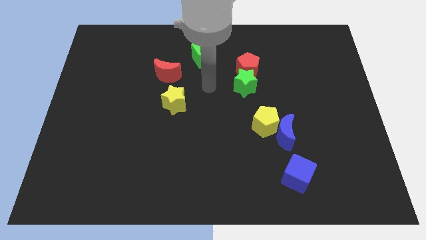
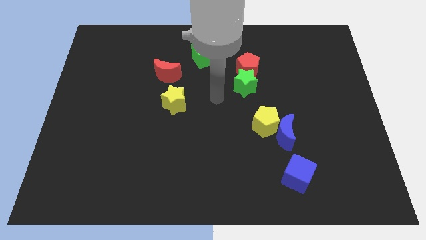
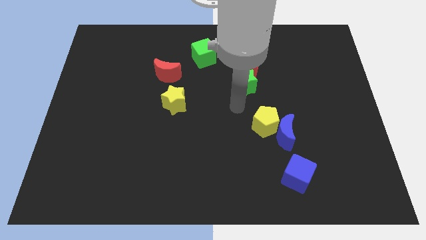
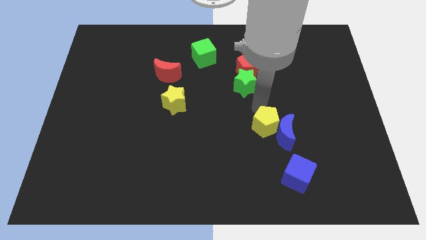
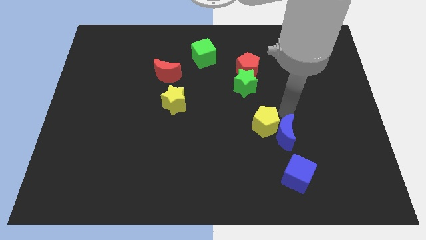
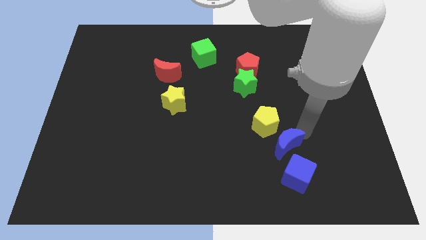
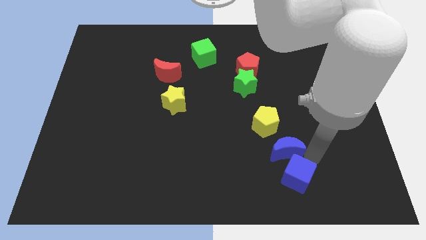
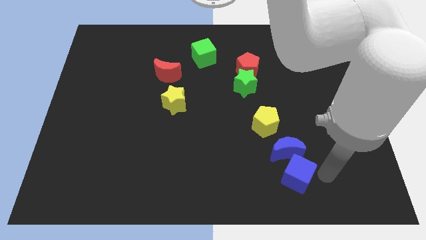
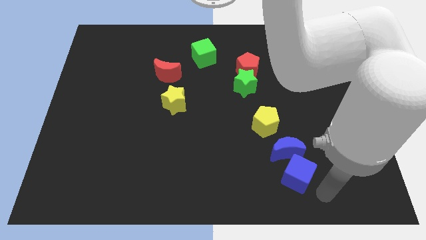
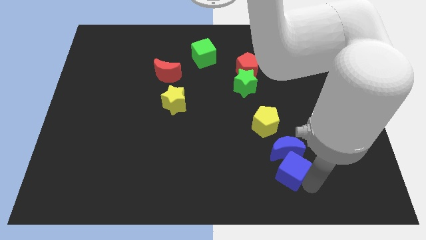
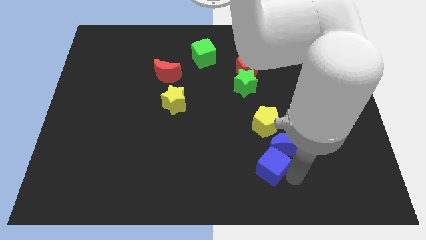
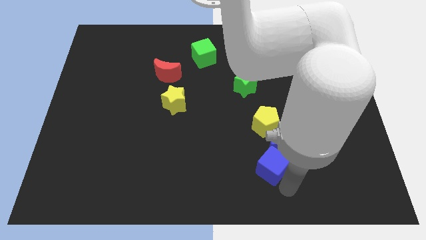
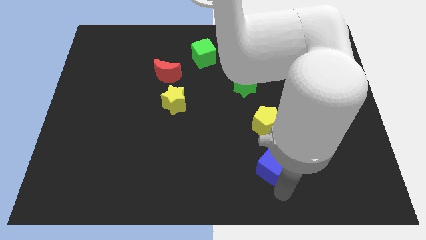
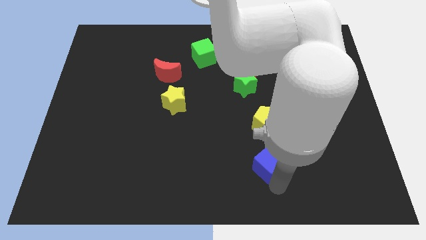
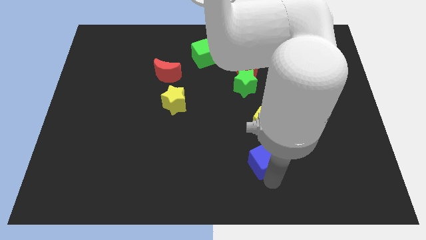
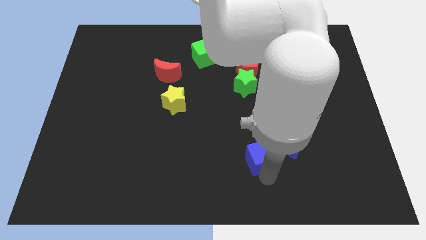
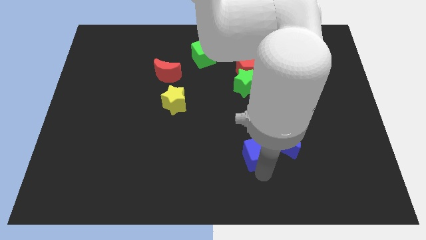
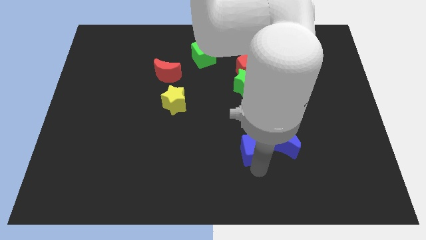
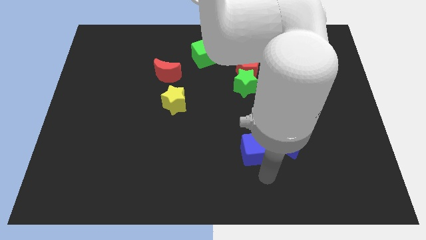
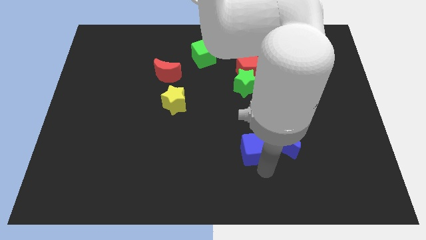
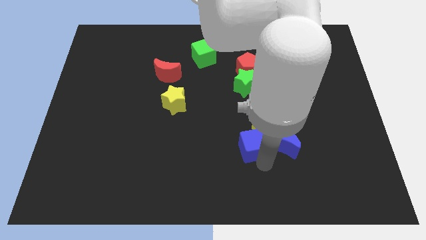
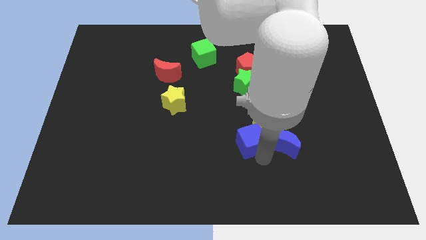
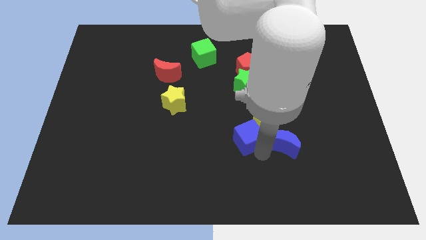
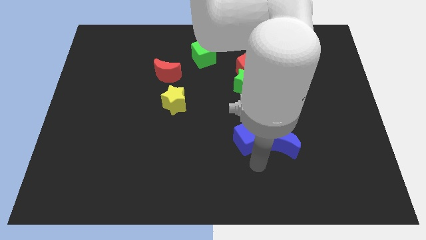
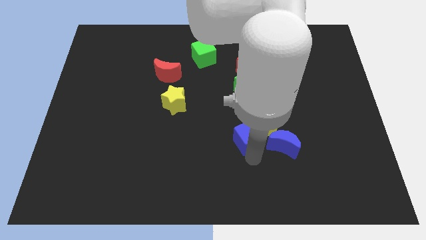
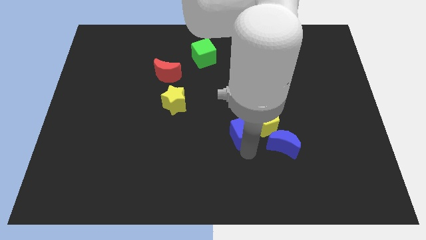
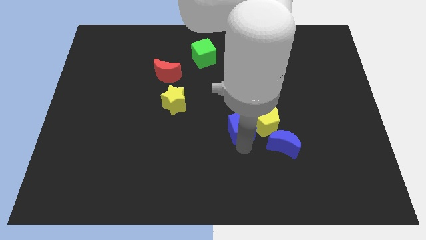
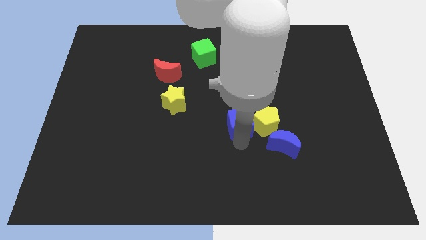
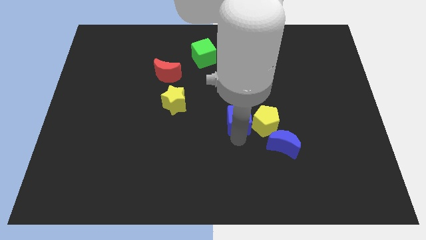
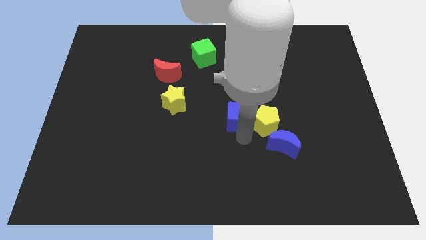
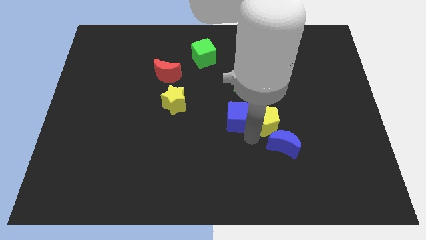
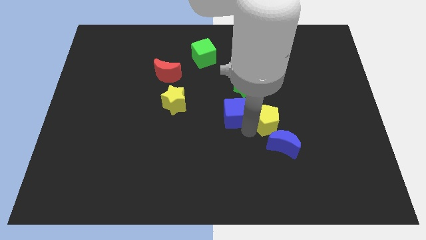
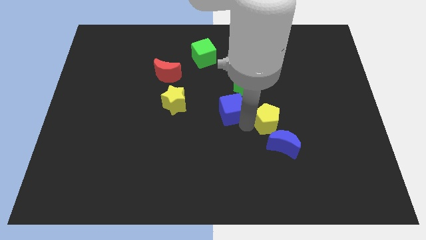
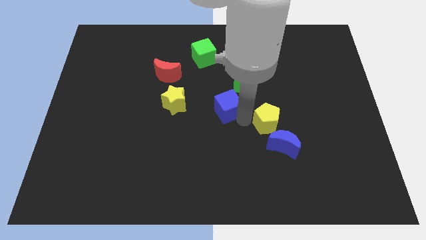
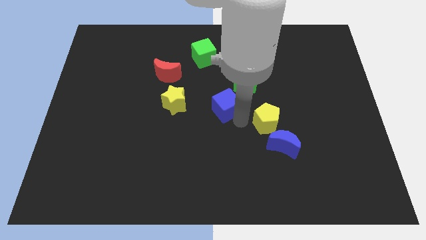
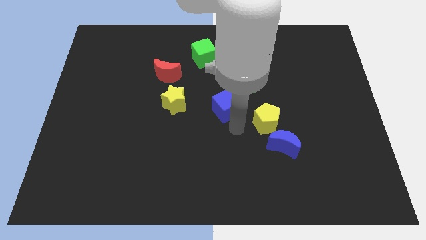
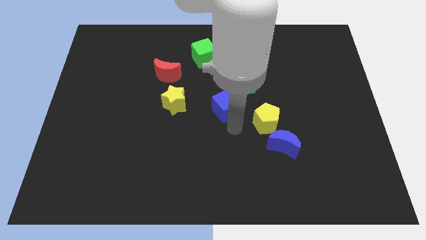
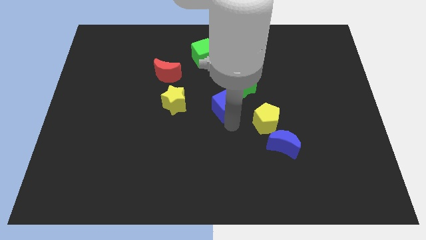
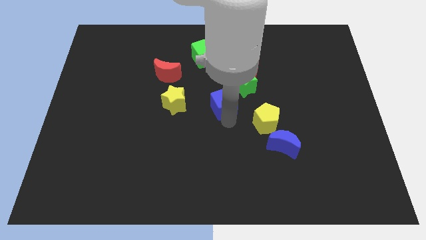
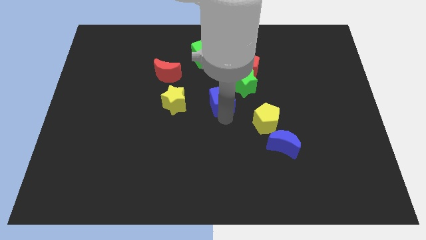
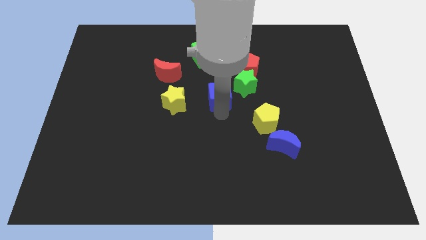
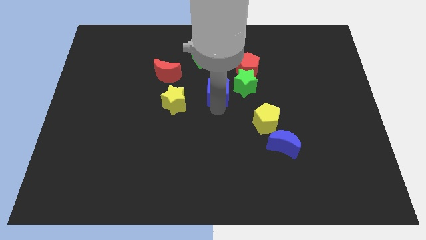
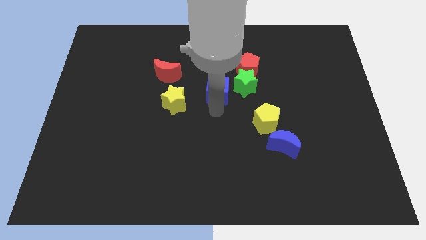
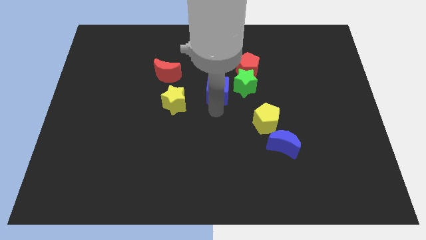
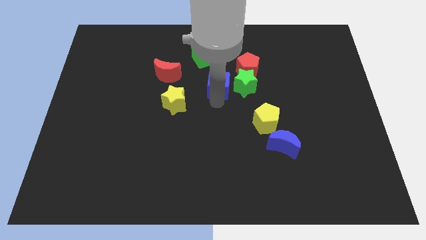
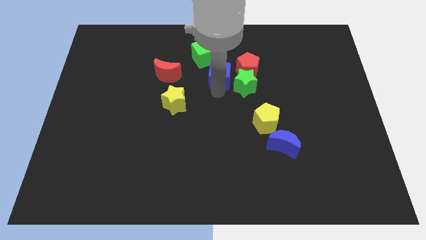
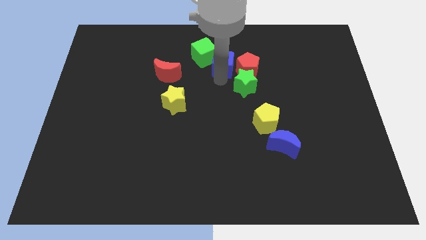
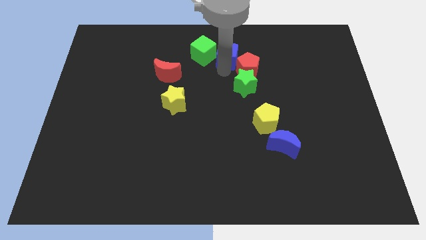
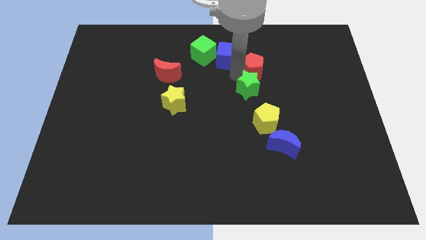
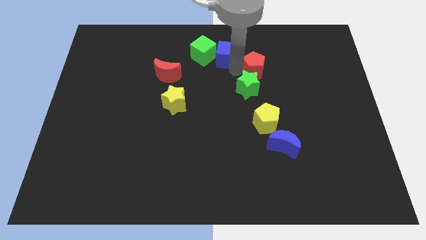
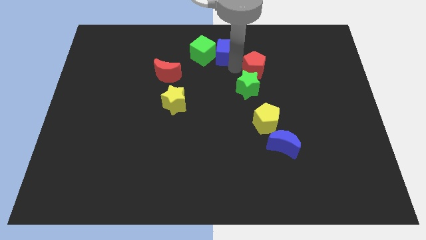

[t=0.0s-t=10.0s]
put the blue cube to the top

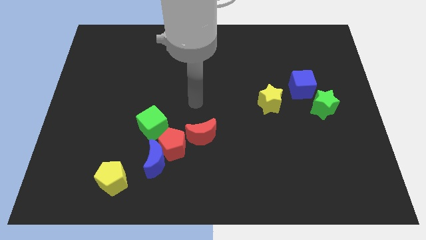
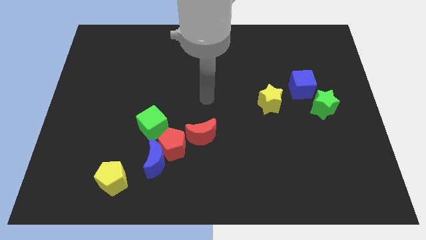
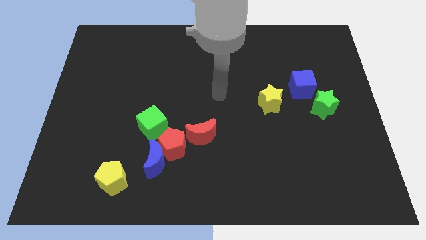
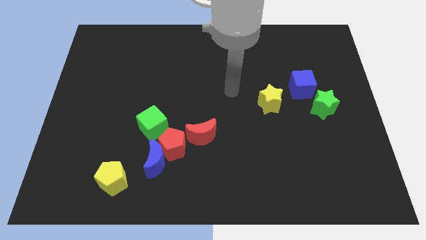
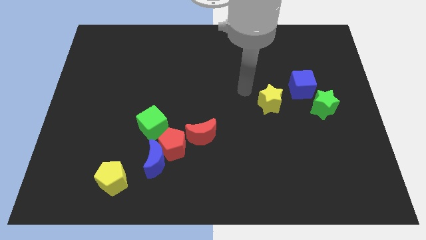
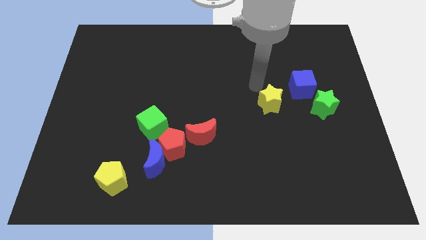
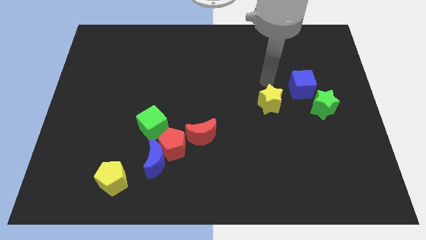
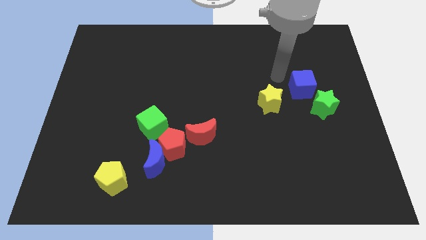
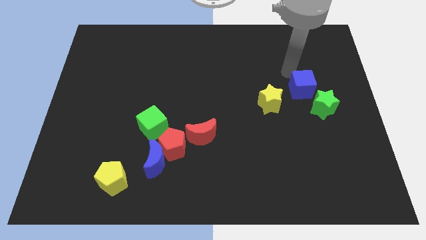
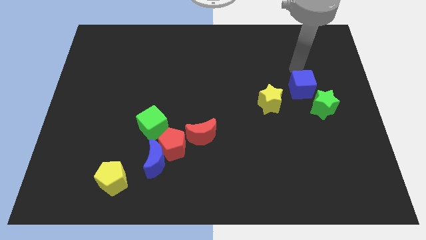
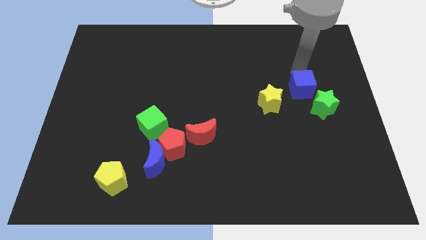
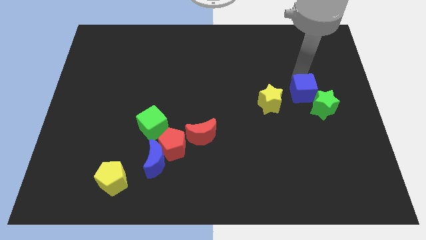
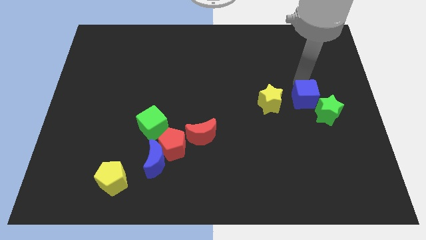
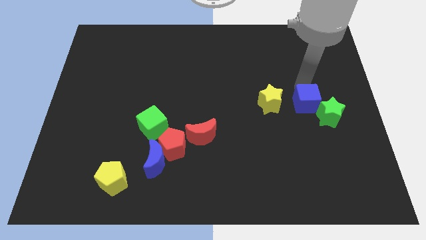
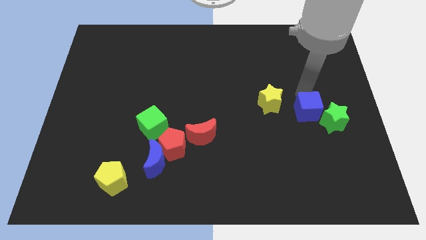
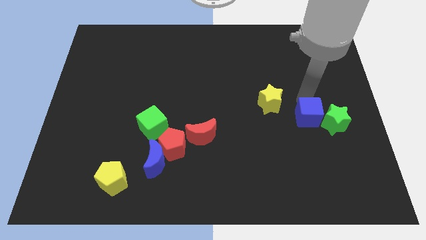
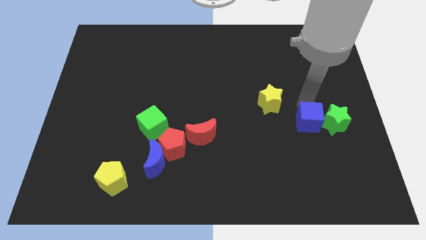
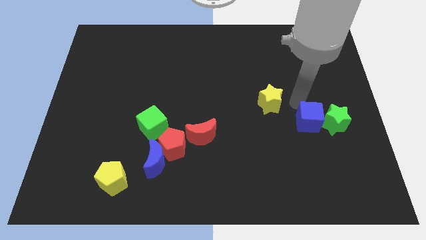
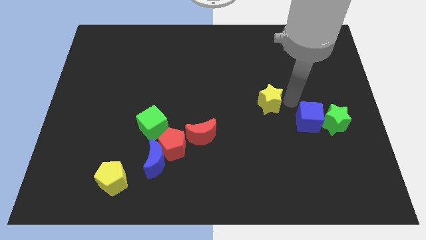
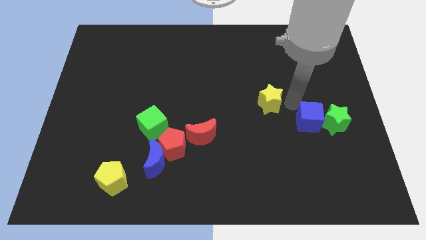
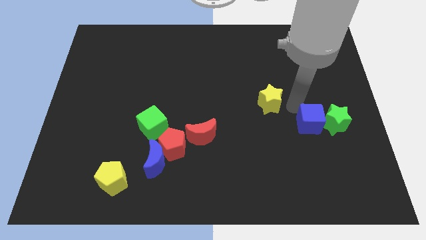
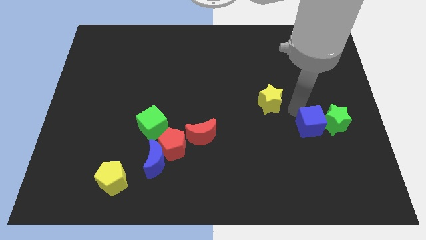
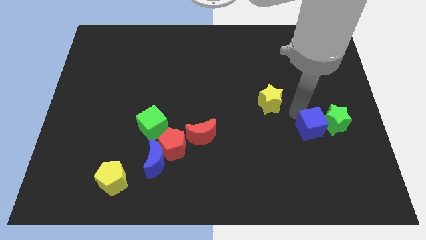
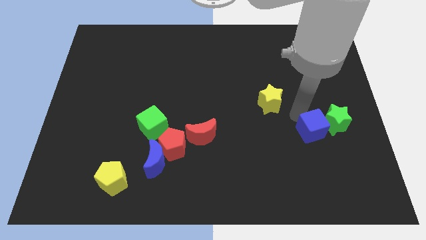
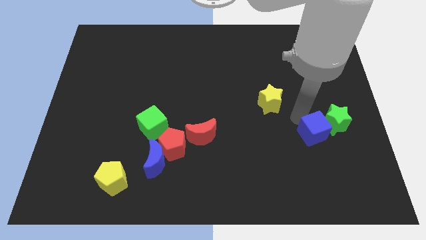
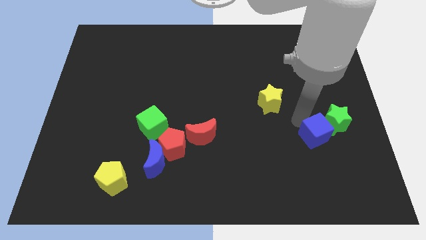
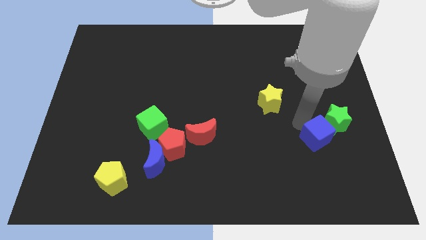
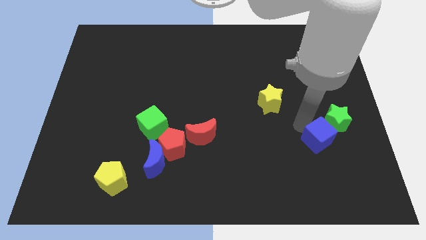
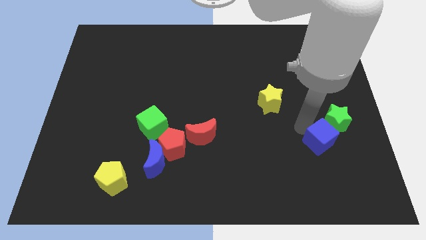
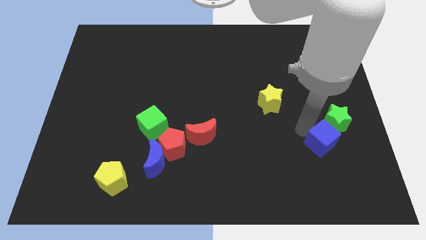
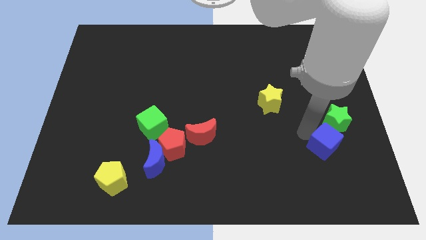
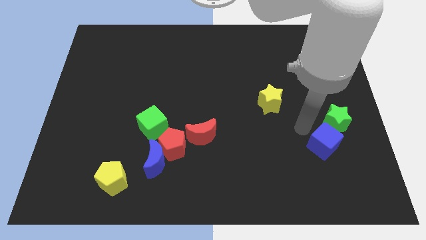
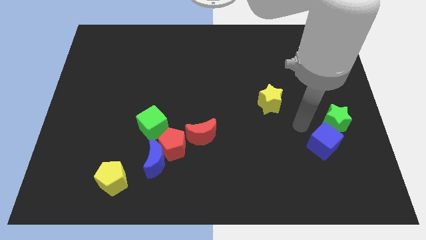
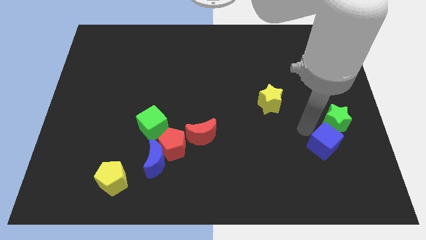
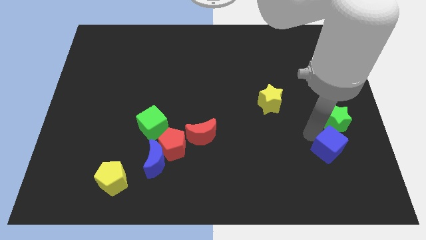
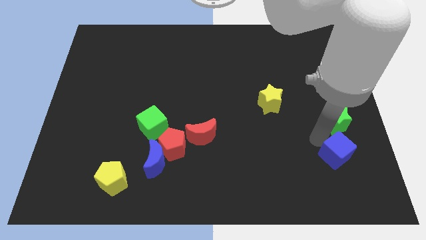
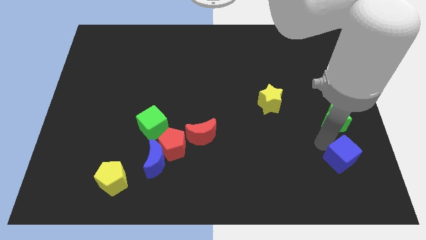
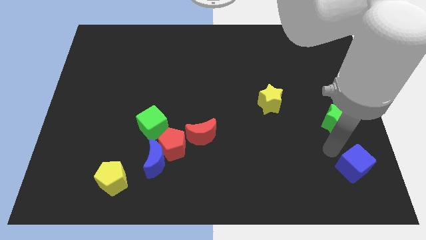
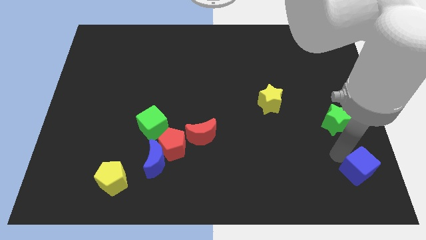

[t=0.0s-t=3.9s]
push the blue cube to the bottom right of the board
